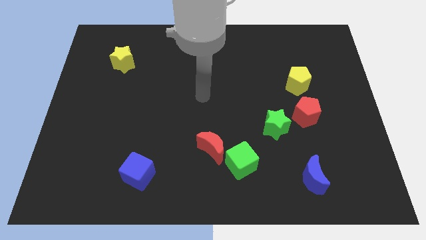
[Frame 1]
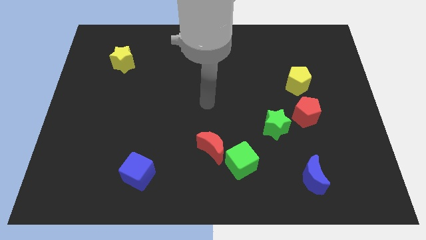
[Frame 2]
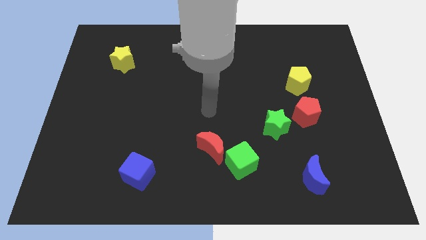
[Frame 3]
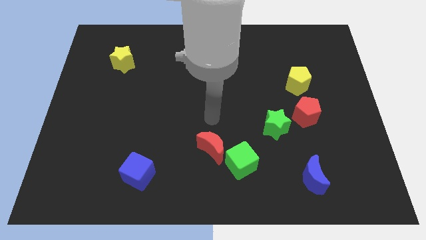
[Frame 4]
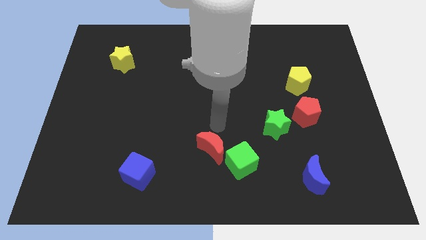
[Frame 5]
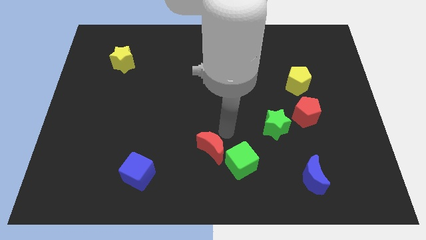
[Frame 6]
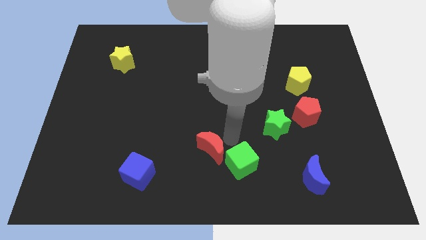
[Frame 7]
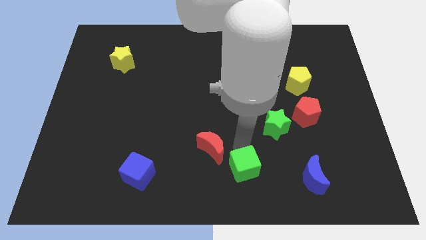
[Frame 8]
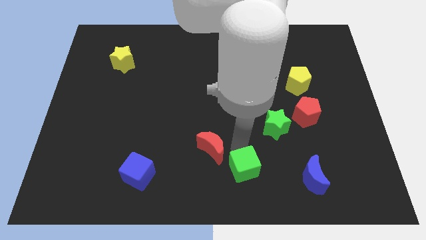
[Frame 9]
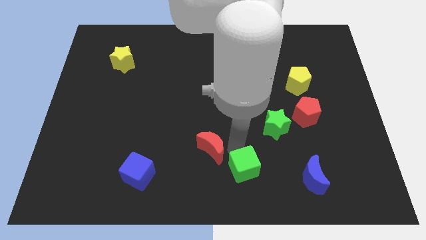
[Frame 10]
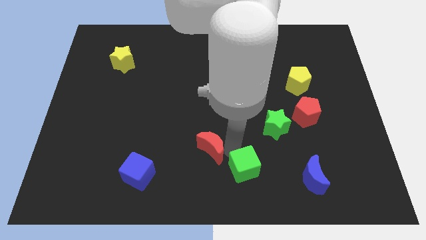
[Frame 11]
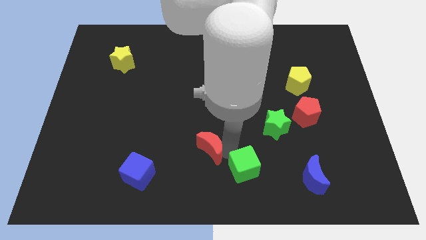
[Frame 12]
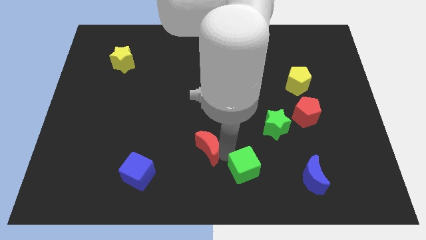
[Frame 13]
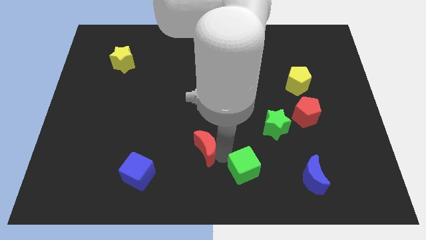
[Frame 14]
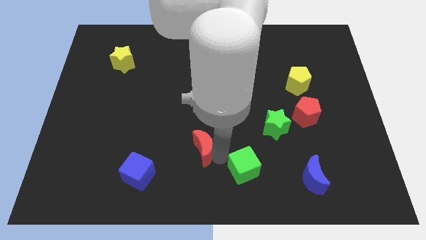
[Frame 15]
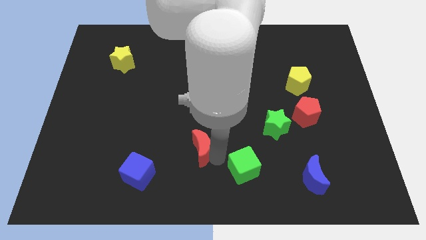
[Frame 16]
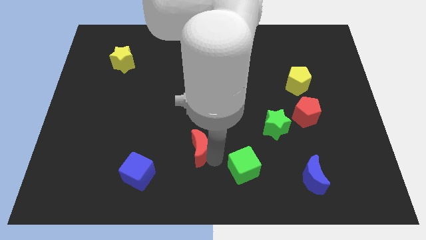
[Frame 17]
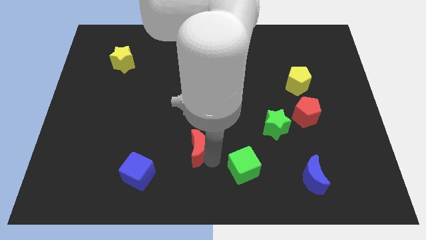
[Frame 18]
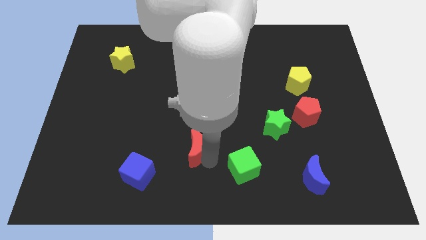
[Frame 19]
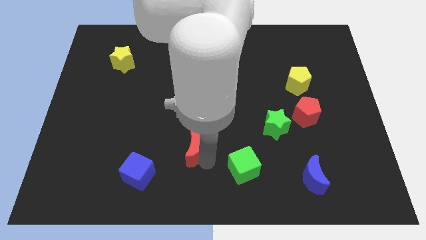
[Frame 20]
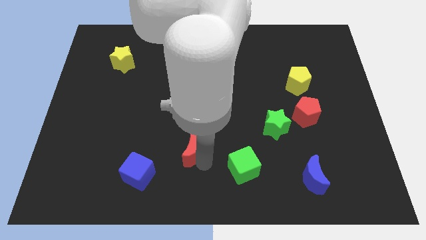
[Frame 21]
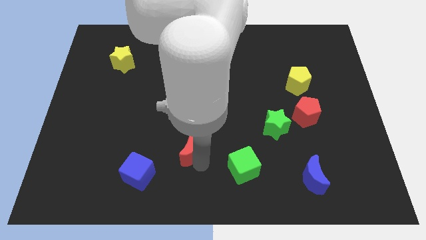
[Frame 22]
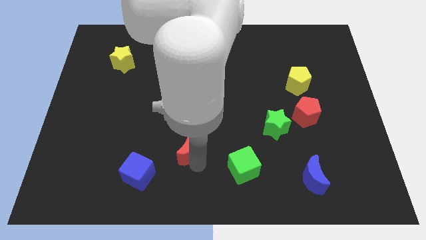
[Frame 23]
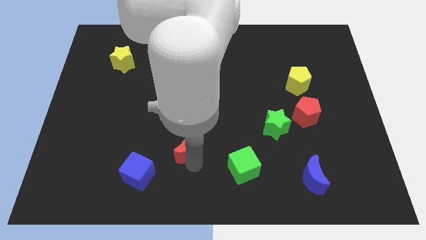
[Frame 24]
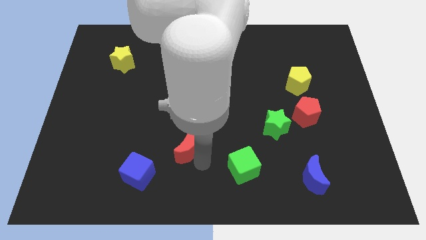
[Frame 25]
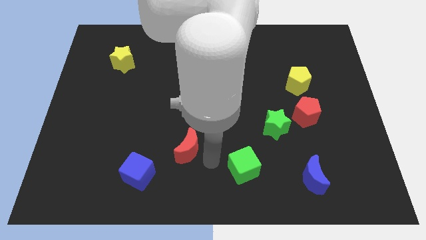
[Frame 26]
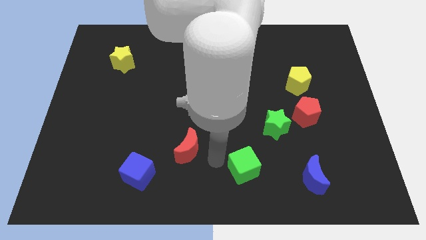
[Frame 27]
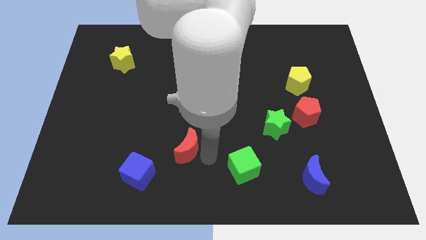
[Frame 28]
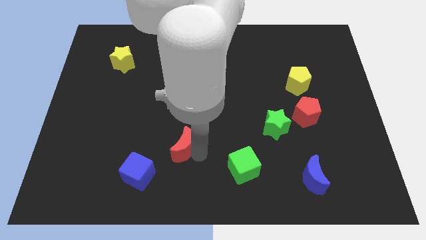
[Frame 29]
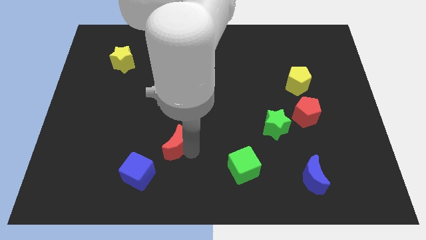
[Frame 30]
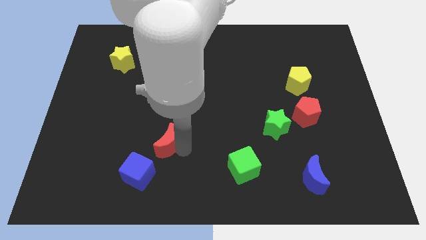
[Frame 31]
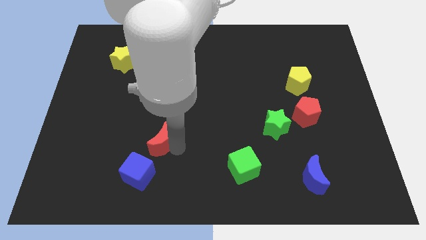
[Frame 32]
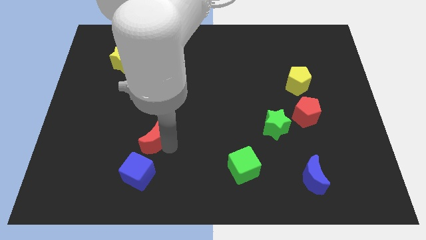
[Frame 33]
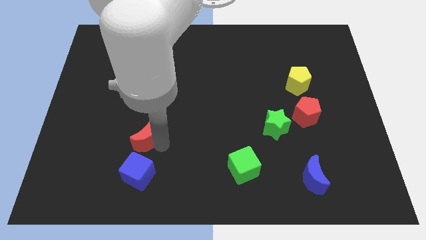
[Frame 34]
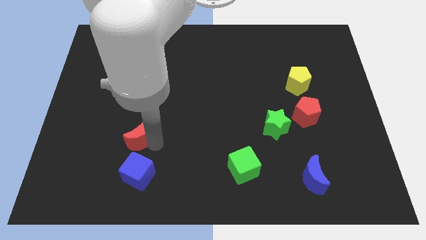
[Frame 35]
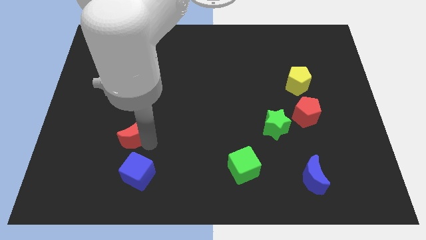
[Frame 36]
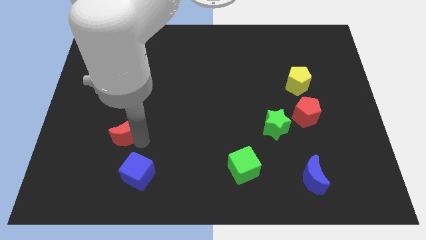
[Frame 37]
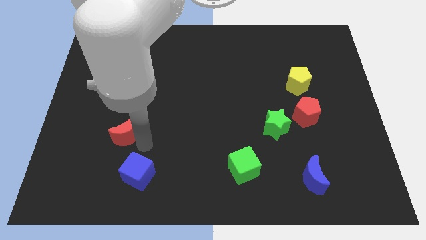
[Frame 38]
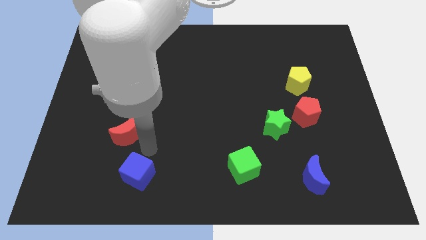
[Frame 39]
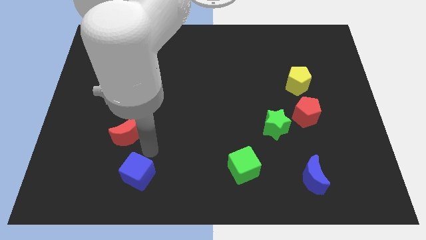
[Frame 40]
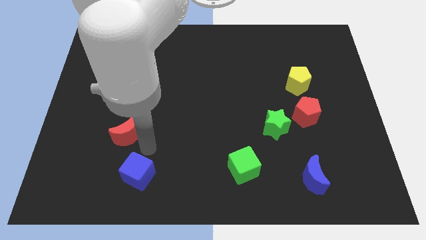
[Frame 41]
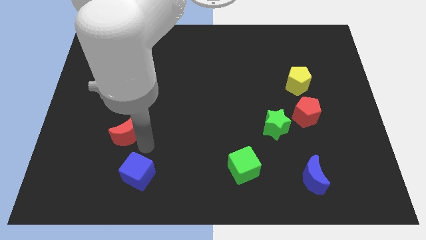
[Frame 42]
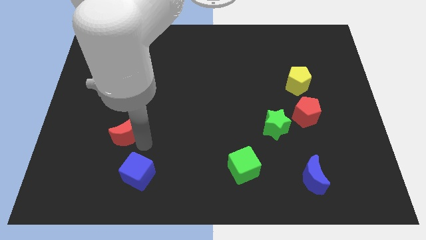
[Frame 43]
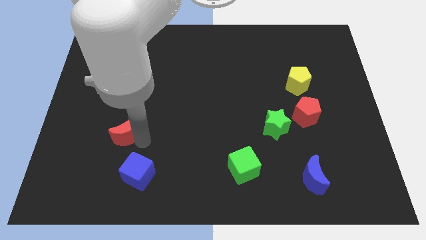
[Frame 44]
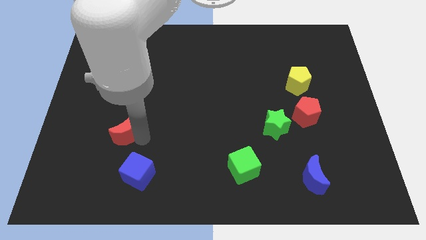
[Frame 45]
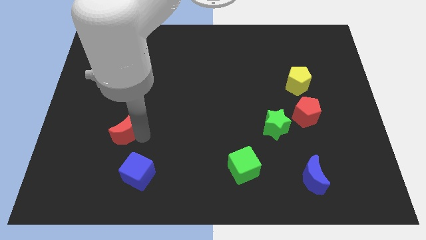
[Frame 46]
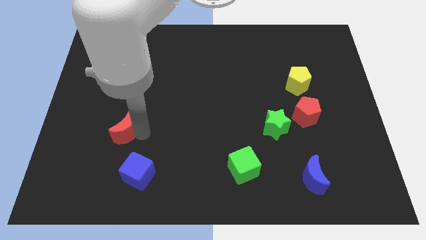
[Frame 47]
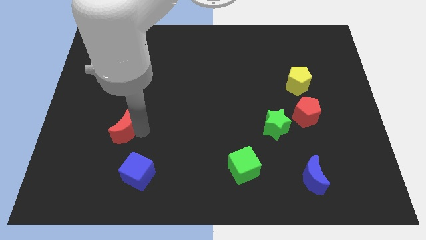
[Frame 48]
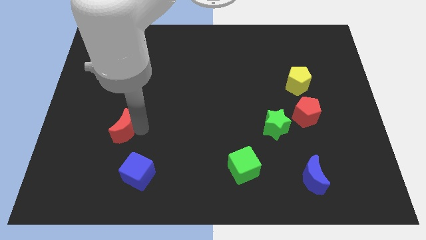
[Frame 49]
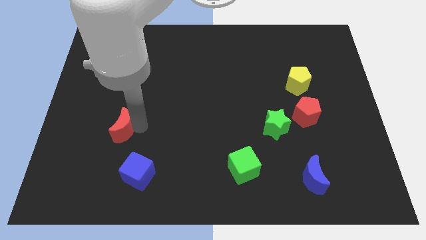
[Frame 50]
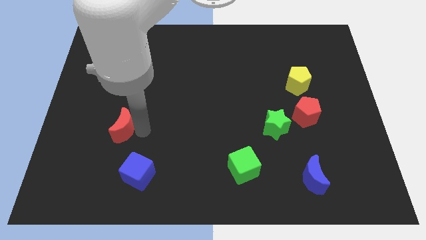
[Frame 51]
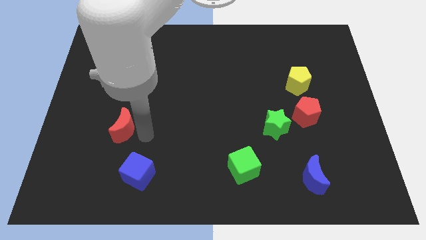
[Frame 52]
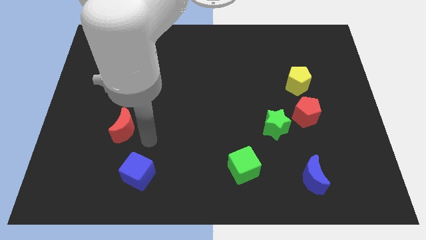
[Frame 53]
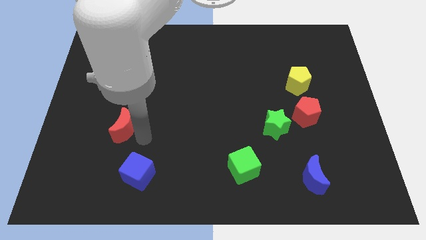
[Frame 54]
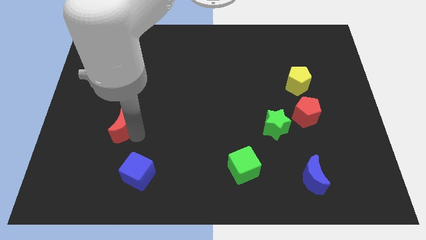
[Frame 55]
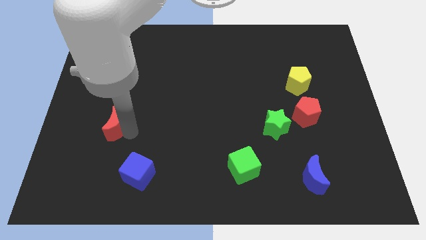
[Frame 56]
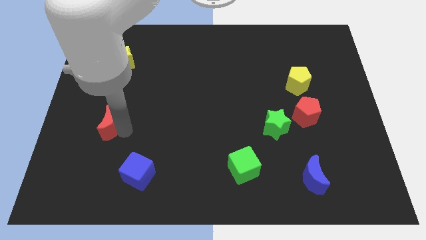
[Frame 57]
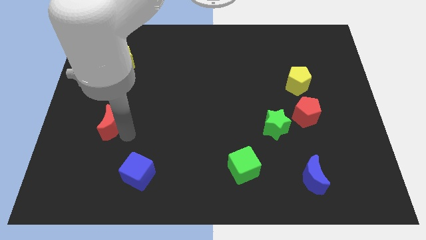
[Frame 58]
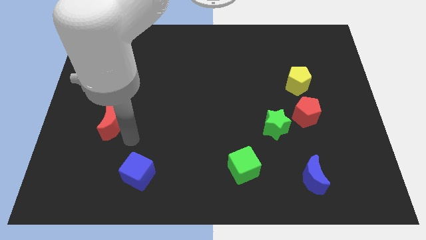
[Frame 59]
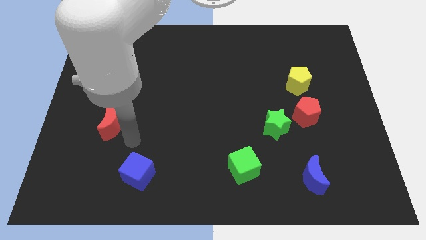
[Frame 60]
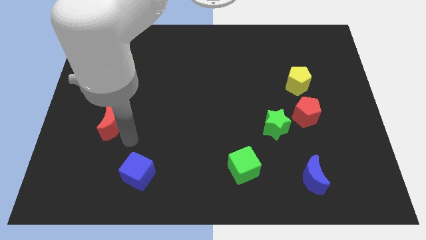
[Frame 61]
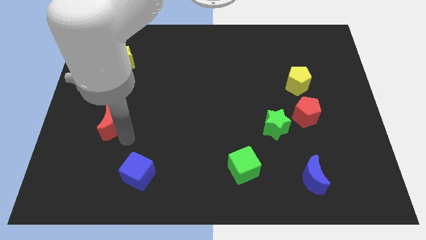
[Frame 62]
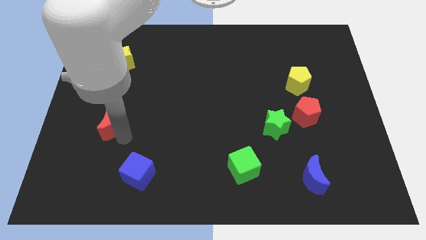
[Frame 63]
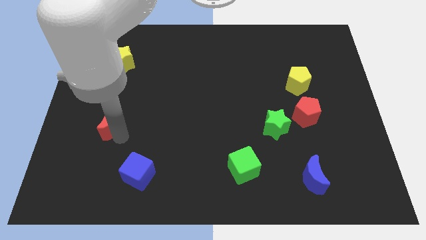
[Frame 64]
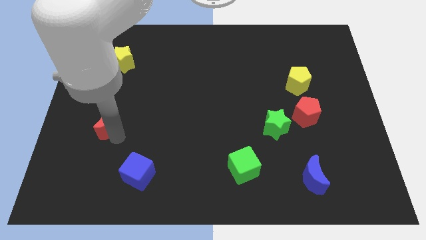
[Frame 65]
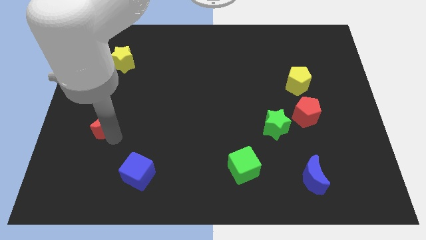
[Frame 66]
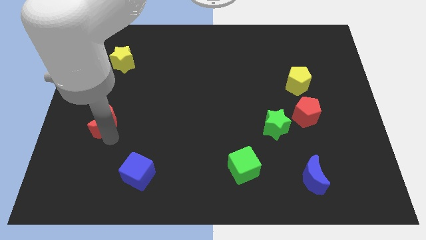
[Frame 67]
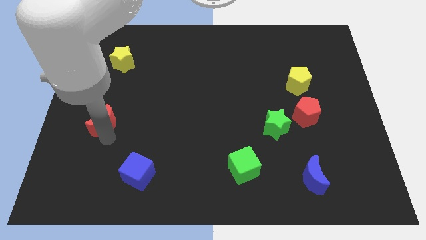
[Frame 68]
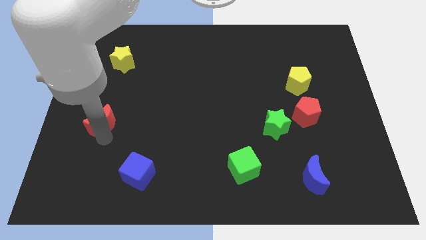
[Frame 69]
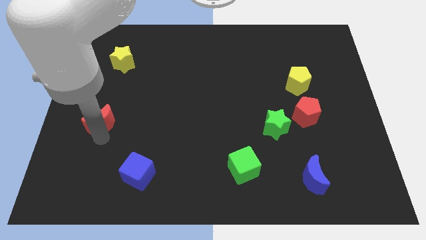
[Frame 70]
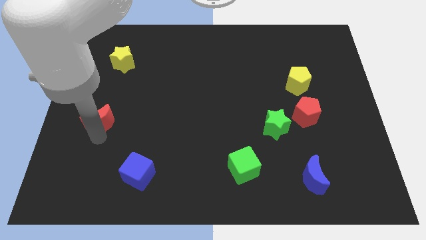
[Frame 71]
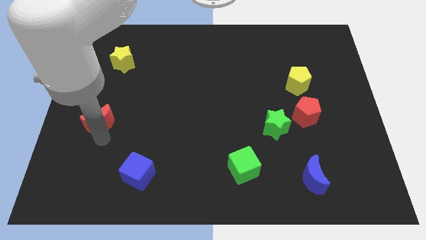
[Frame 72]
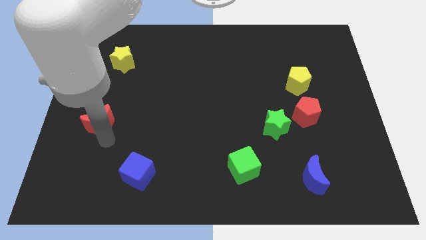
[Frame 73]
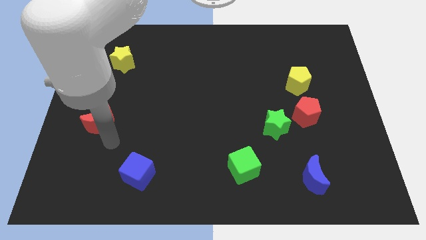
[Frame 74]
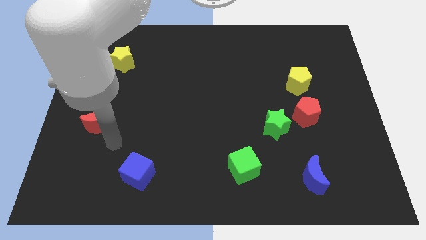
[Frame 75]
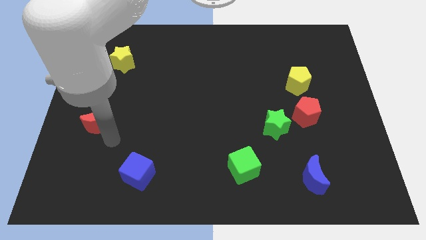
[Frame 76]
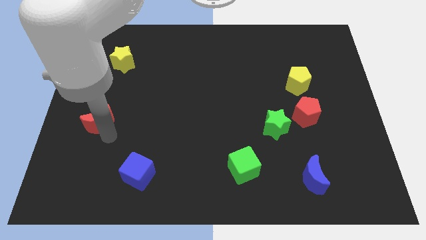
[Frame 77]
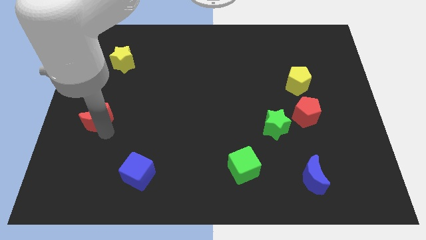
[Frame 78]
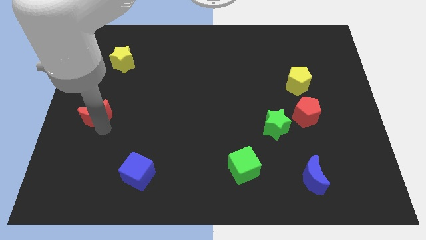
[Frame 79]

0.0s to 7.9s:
push the red moon to the left side
